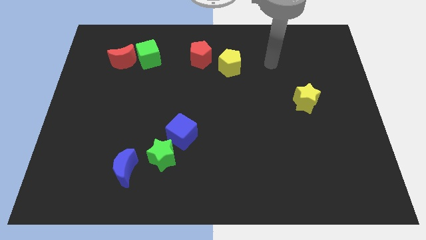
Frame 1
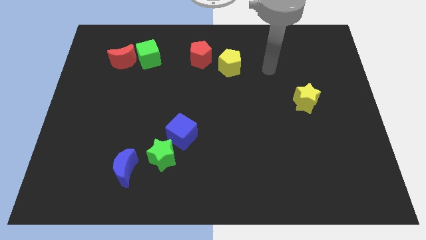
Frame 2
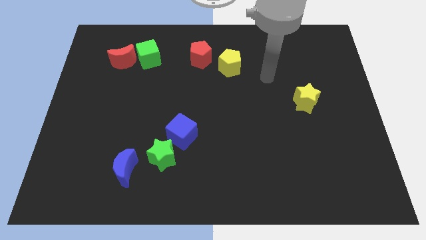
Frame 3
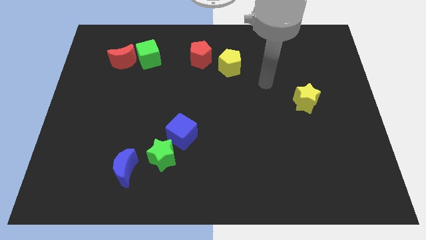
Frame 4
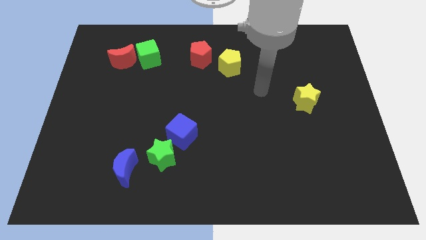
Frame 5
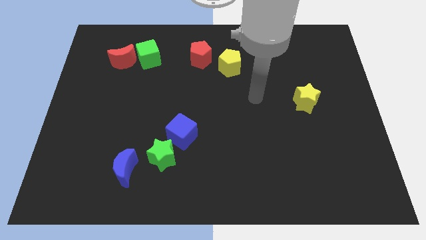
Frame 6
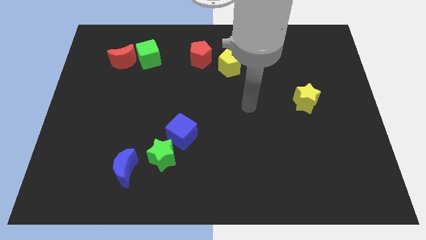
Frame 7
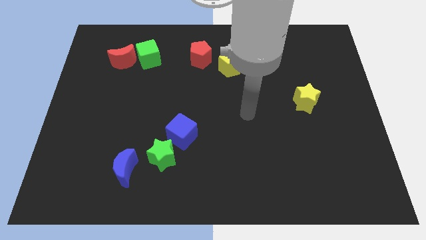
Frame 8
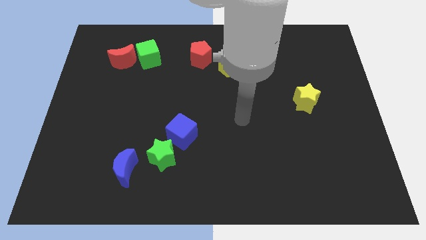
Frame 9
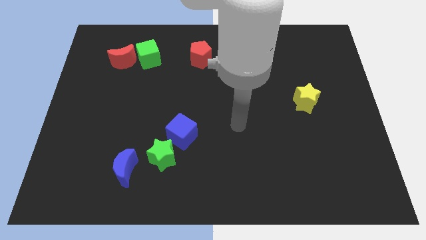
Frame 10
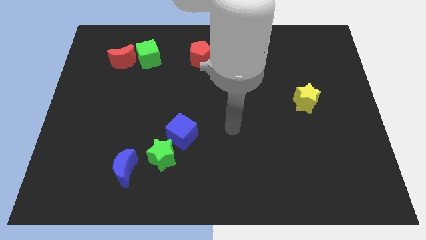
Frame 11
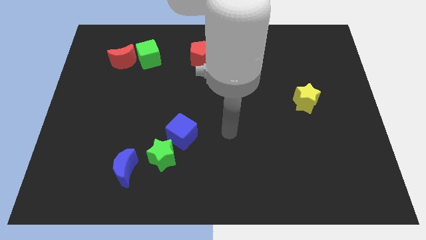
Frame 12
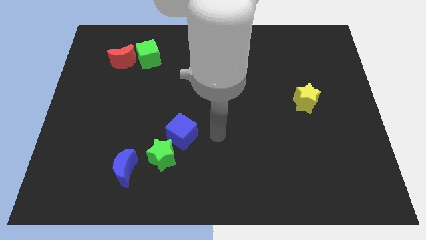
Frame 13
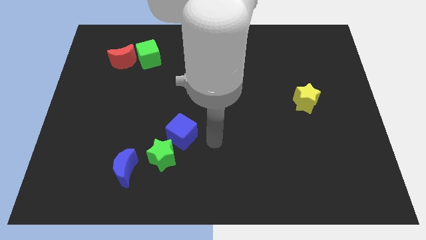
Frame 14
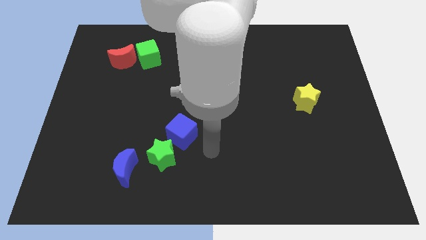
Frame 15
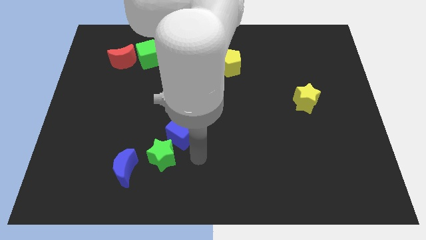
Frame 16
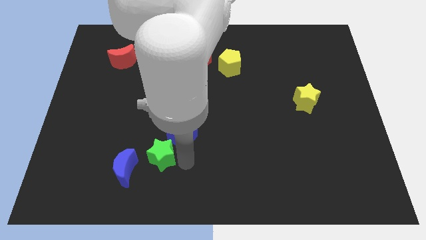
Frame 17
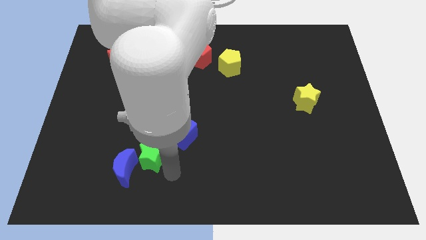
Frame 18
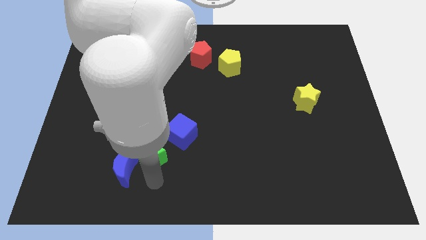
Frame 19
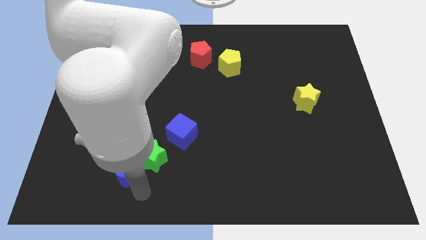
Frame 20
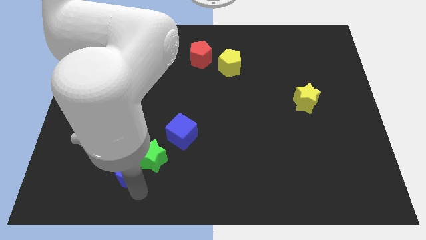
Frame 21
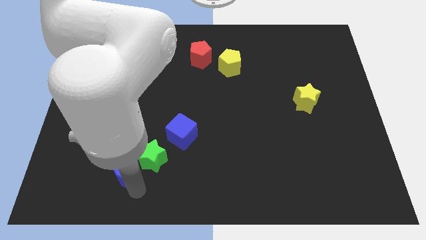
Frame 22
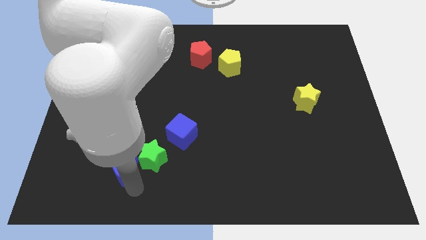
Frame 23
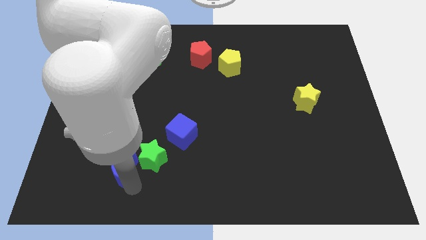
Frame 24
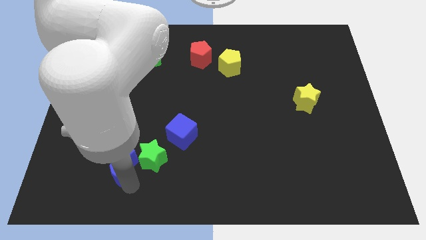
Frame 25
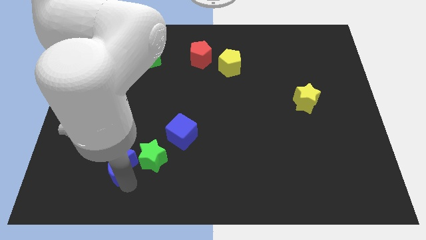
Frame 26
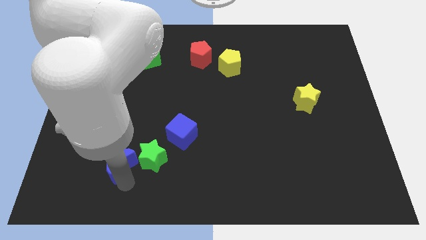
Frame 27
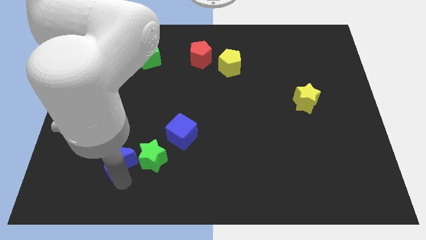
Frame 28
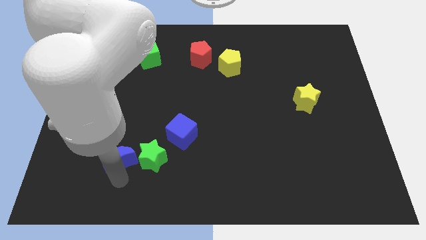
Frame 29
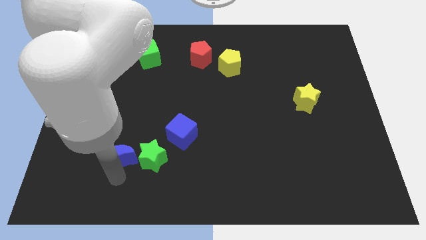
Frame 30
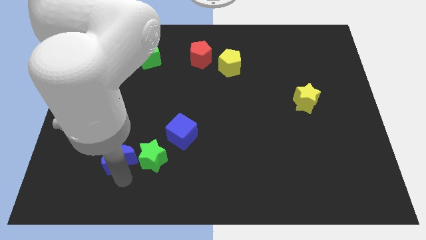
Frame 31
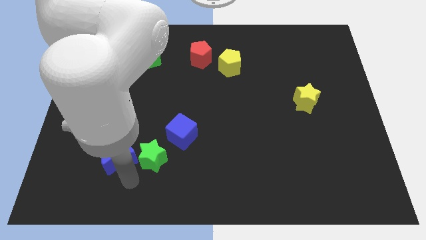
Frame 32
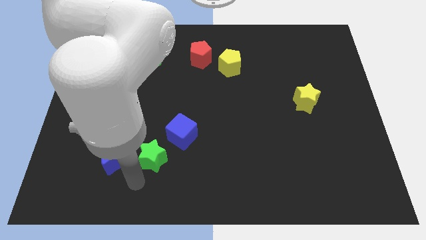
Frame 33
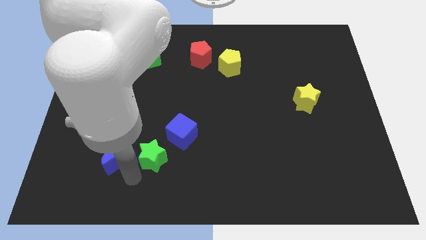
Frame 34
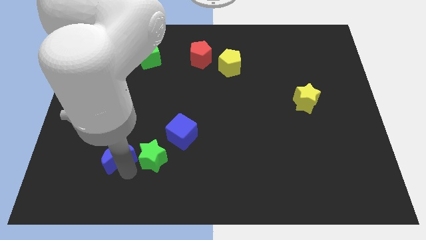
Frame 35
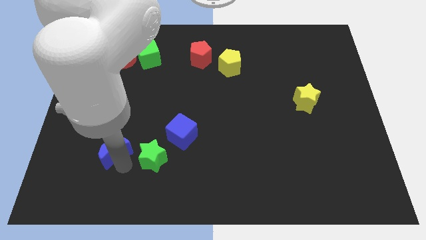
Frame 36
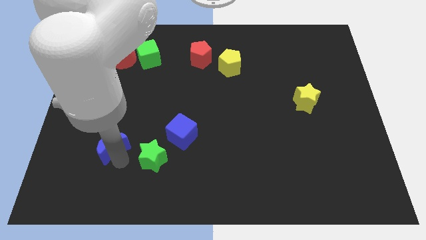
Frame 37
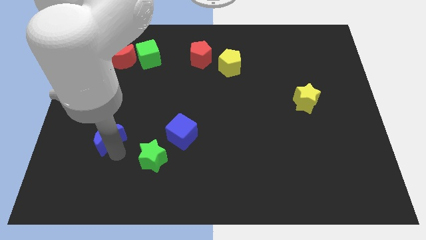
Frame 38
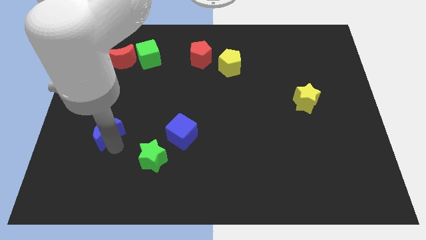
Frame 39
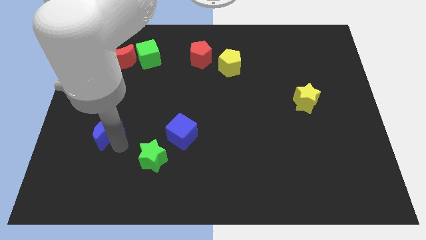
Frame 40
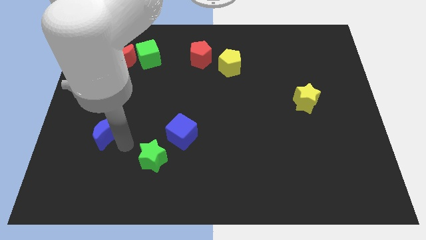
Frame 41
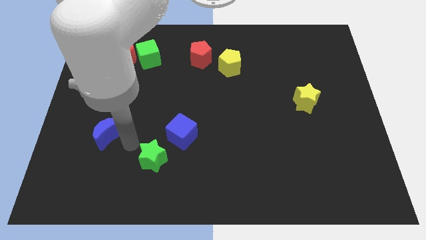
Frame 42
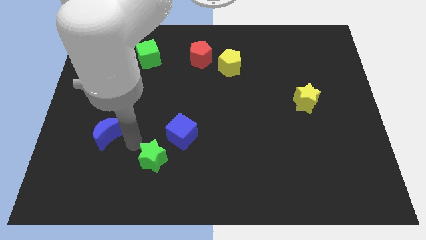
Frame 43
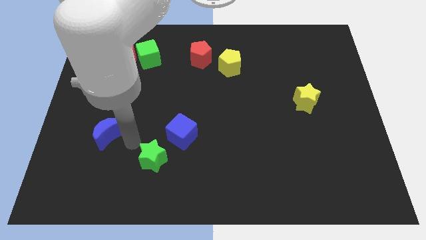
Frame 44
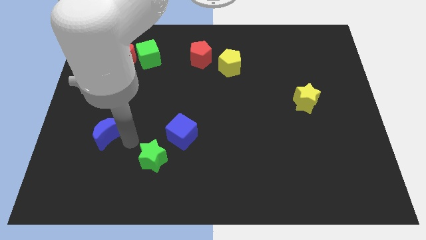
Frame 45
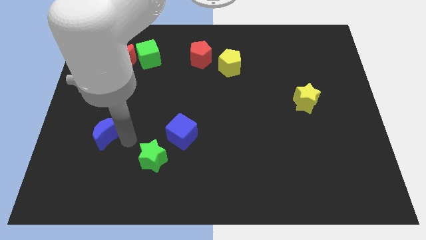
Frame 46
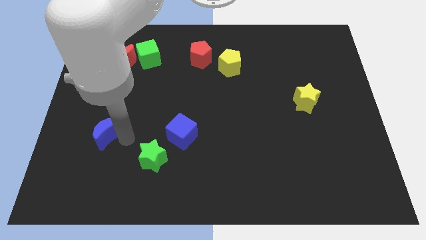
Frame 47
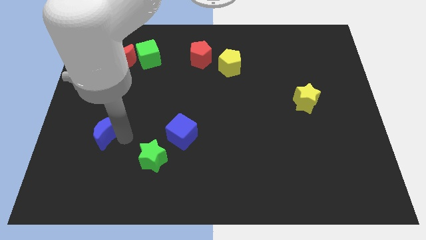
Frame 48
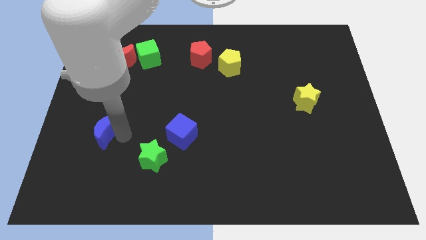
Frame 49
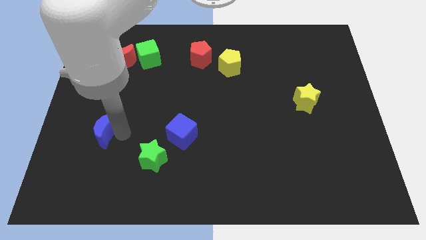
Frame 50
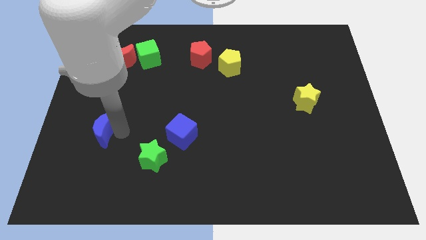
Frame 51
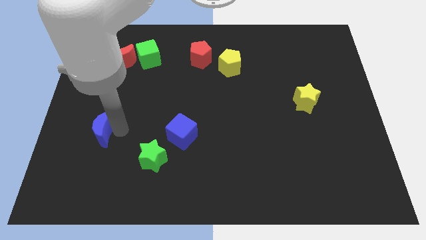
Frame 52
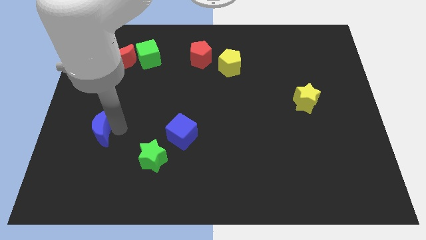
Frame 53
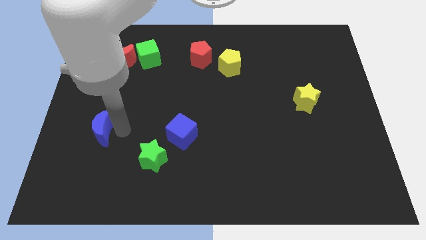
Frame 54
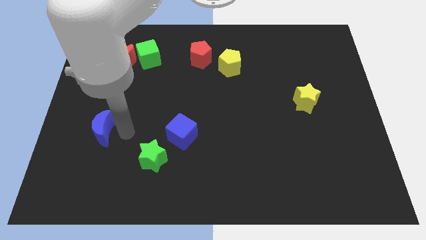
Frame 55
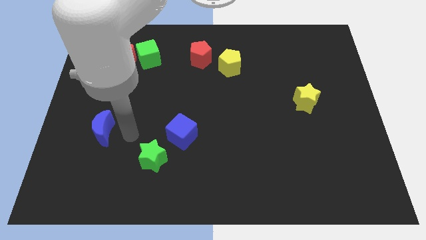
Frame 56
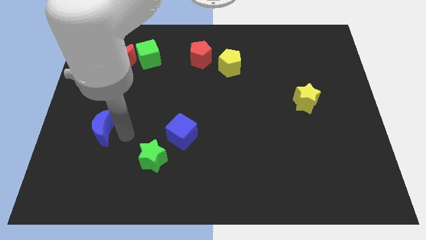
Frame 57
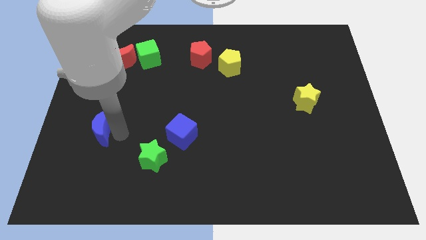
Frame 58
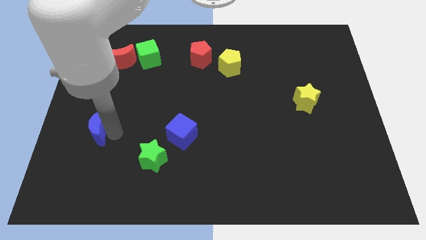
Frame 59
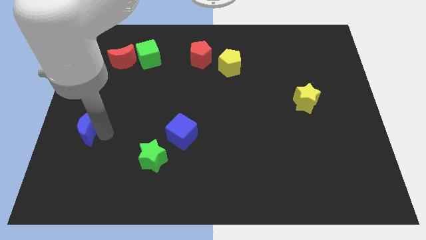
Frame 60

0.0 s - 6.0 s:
push the blue moon to the left side

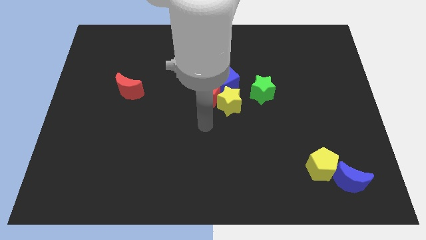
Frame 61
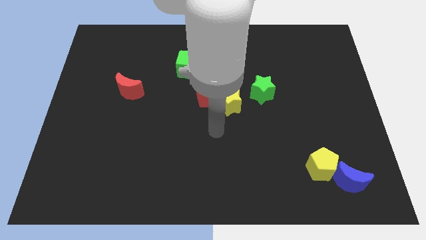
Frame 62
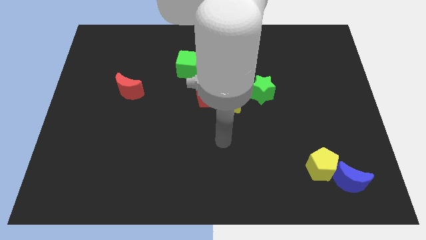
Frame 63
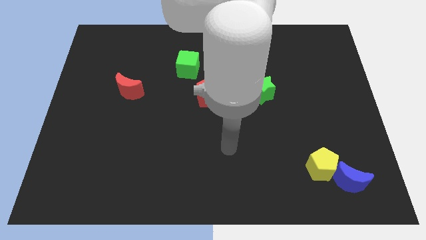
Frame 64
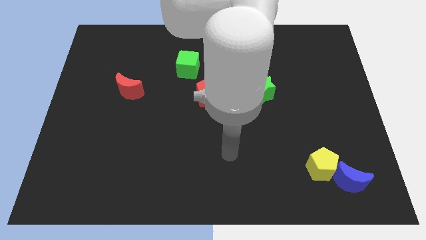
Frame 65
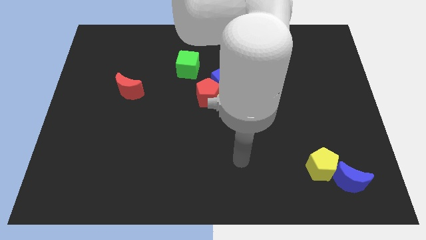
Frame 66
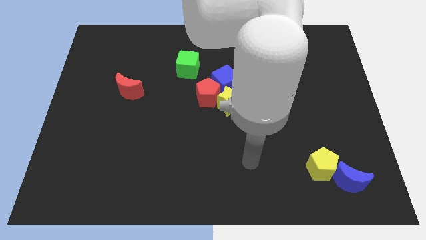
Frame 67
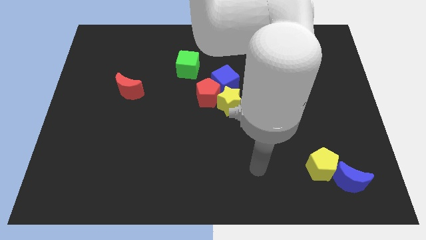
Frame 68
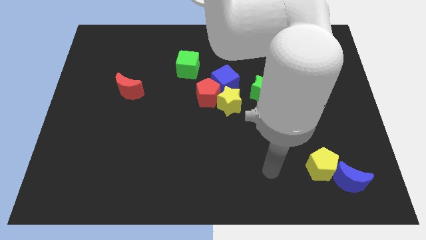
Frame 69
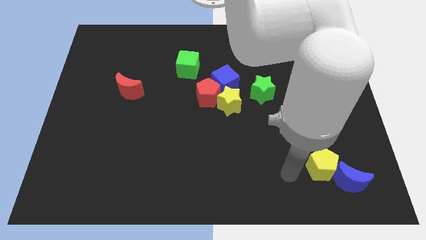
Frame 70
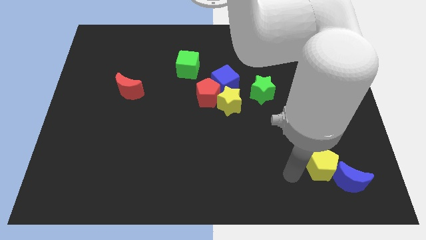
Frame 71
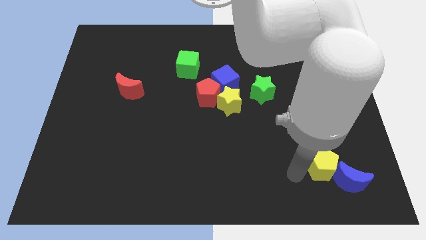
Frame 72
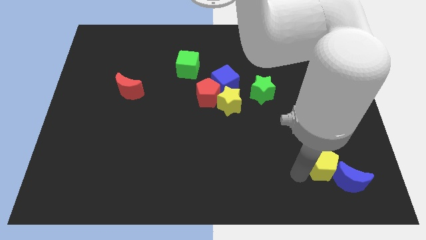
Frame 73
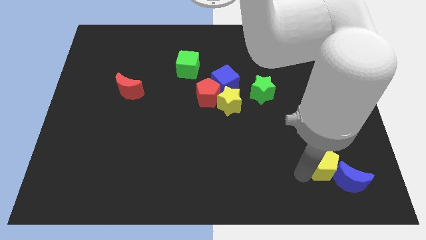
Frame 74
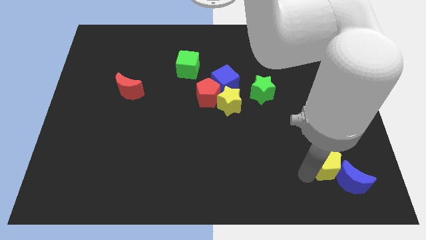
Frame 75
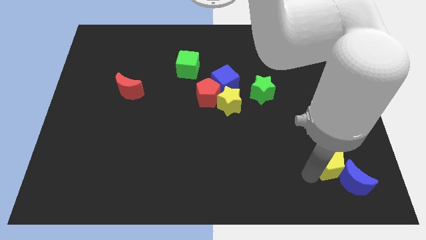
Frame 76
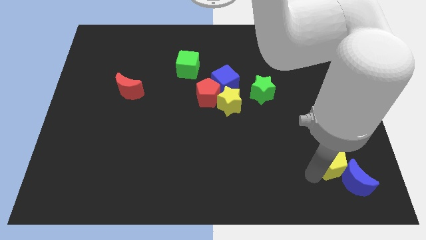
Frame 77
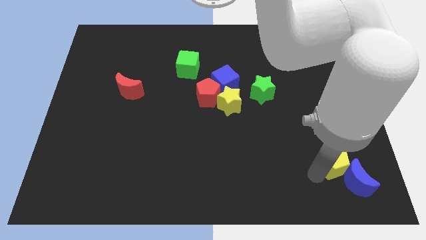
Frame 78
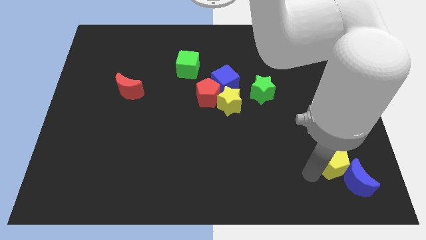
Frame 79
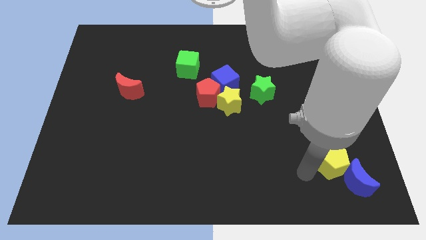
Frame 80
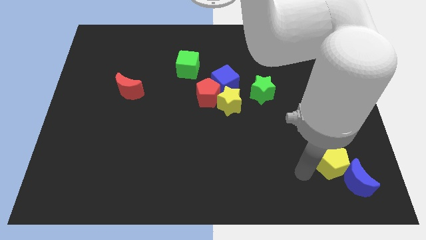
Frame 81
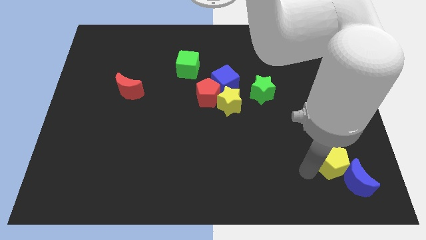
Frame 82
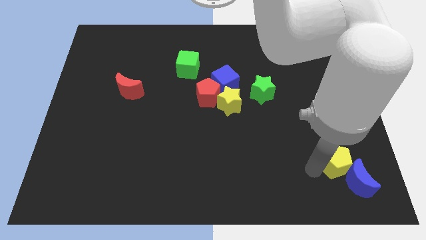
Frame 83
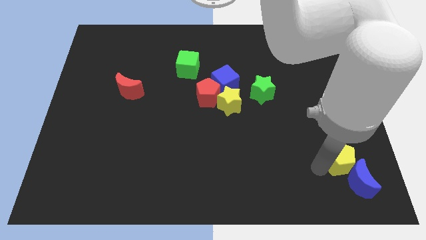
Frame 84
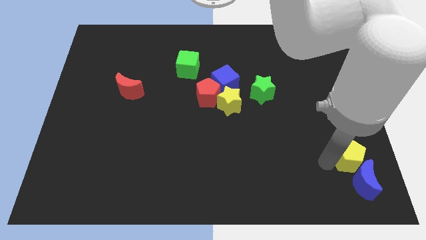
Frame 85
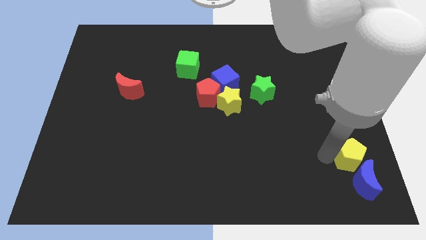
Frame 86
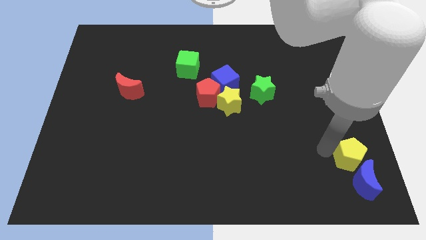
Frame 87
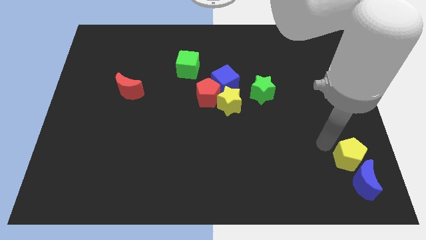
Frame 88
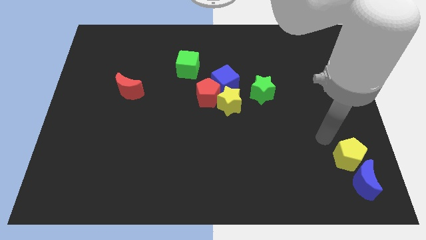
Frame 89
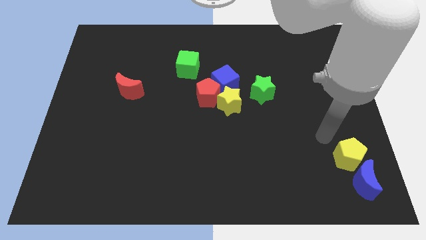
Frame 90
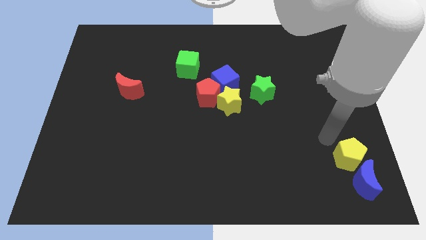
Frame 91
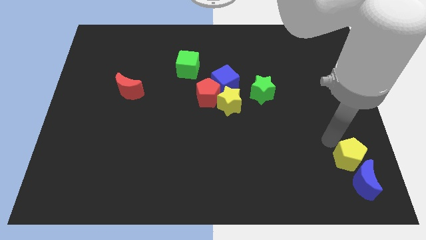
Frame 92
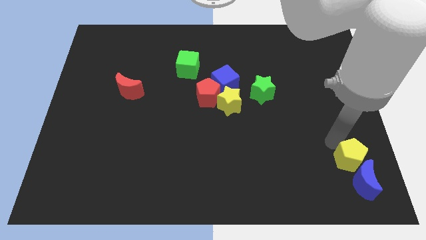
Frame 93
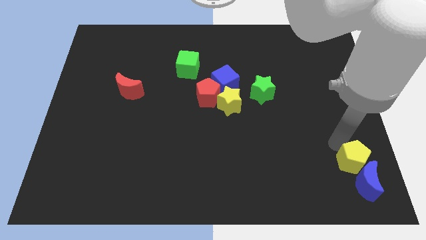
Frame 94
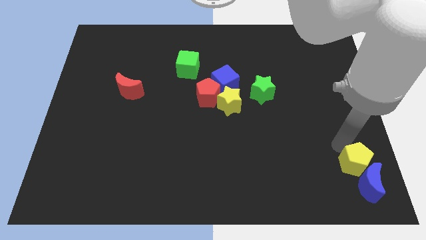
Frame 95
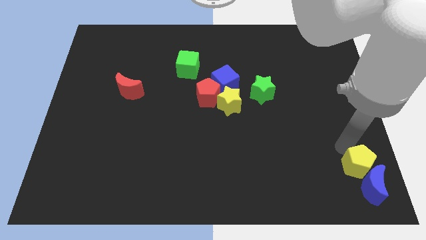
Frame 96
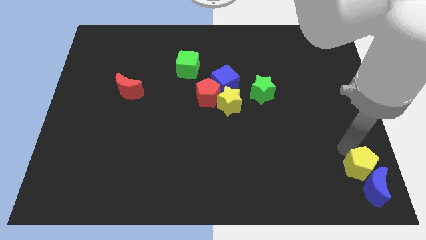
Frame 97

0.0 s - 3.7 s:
put the yellow pentagon to the bottom right of the board
